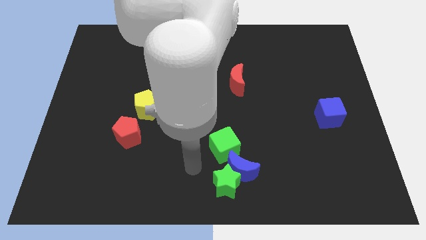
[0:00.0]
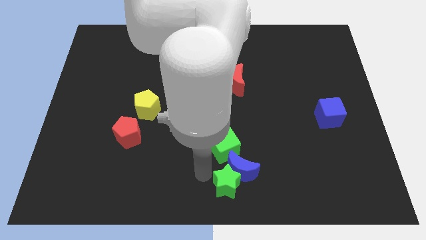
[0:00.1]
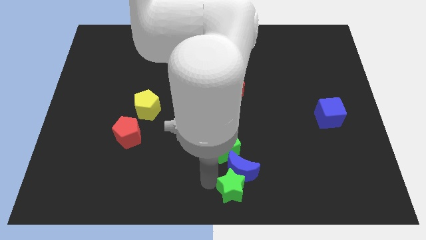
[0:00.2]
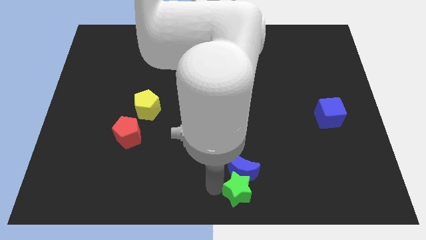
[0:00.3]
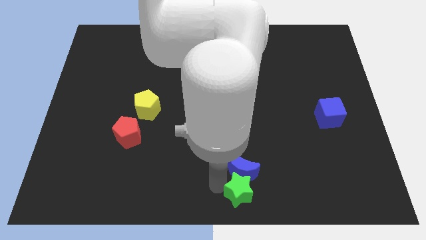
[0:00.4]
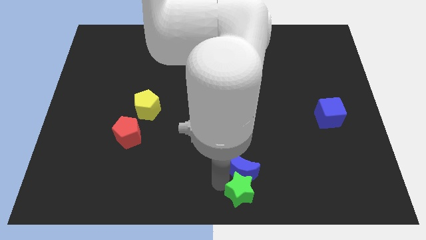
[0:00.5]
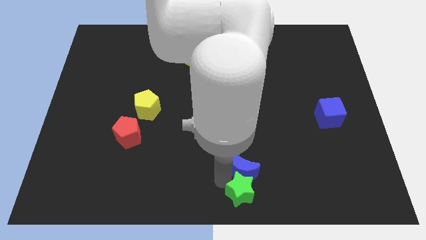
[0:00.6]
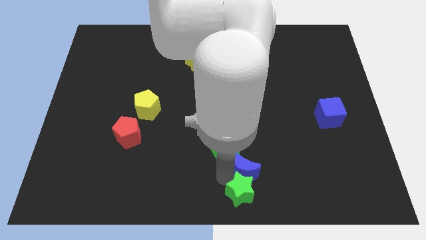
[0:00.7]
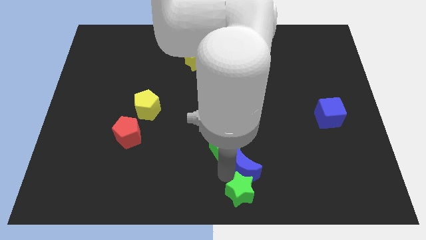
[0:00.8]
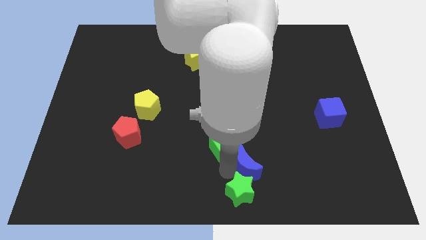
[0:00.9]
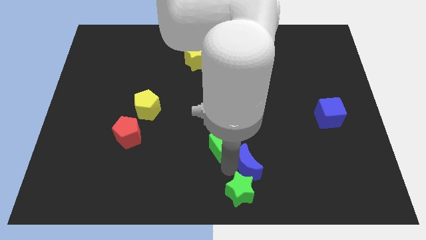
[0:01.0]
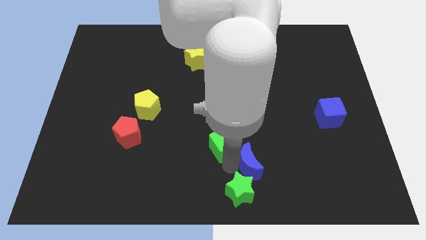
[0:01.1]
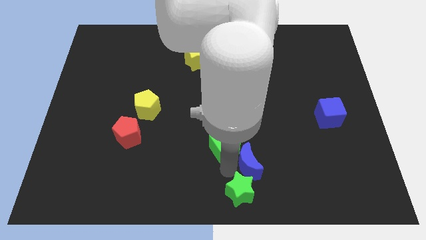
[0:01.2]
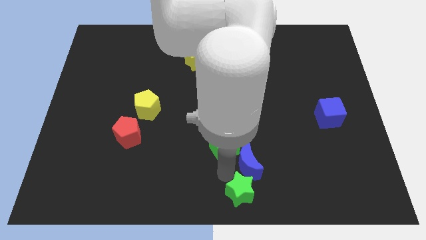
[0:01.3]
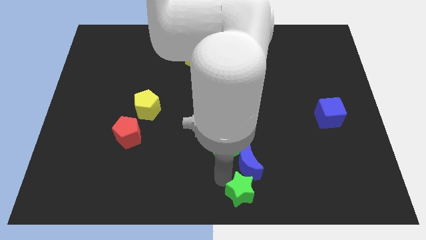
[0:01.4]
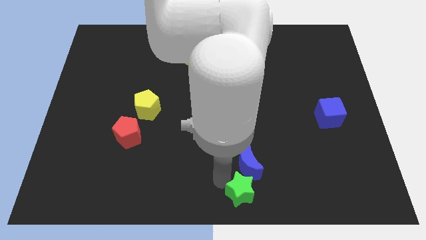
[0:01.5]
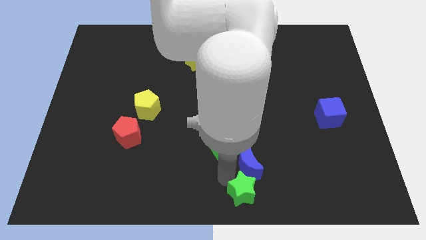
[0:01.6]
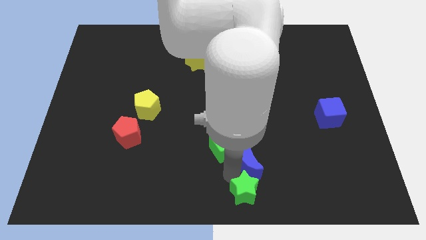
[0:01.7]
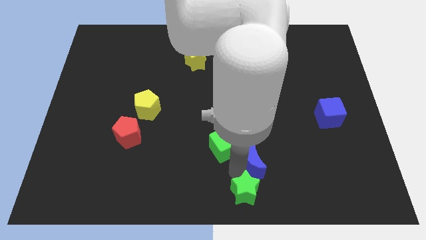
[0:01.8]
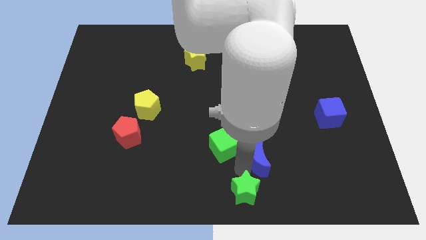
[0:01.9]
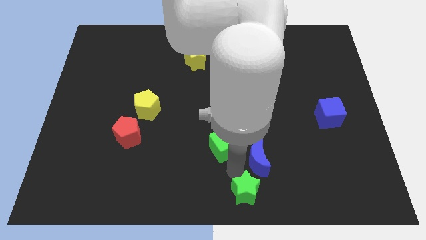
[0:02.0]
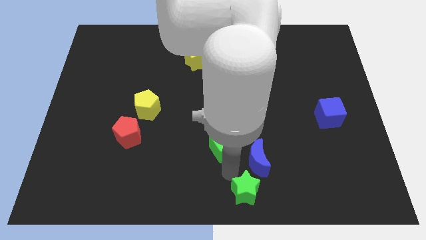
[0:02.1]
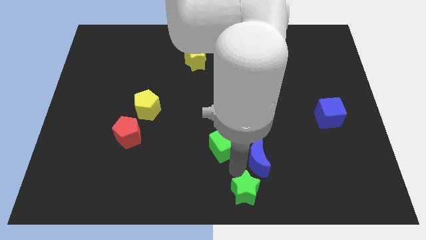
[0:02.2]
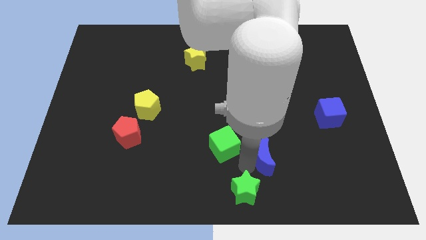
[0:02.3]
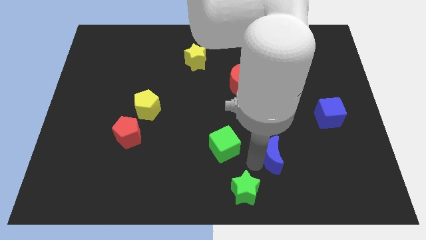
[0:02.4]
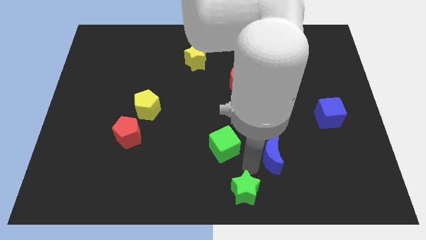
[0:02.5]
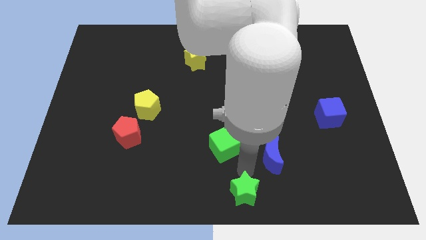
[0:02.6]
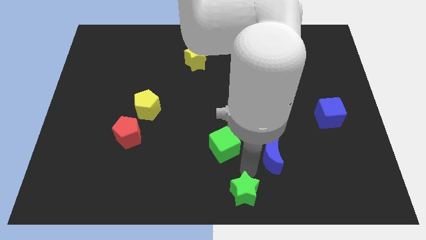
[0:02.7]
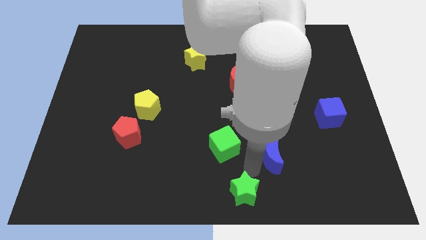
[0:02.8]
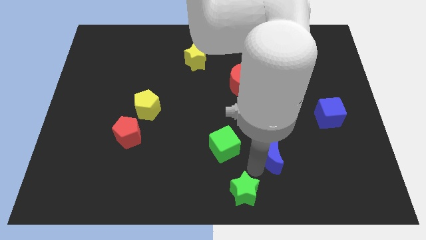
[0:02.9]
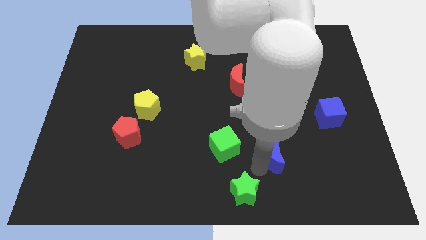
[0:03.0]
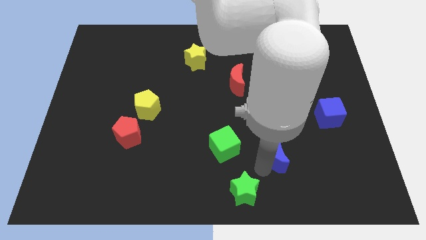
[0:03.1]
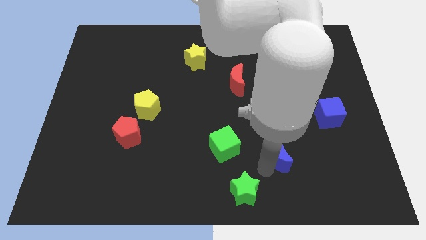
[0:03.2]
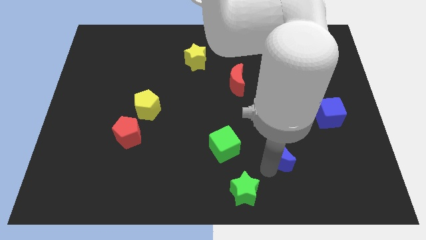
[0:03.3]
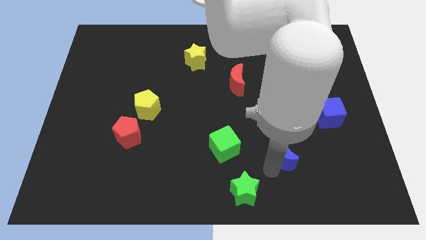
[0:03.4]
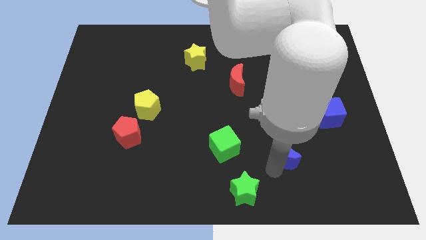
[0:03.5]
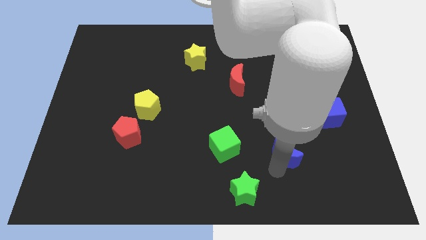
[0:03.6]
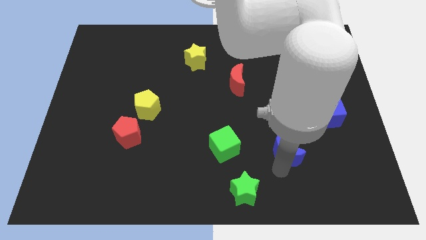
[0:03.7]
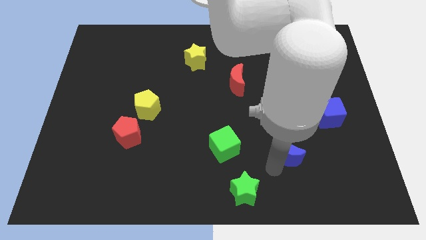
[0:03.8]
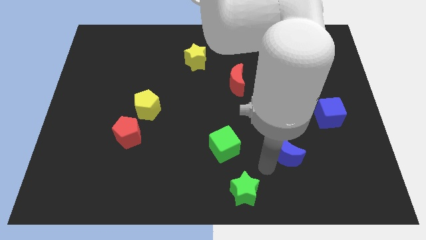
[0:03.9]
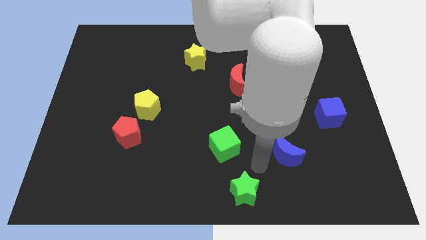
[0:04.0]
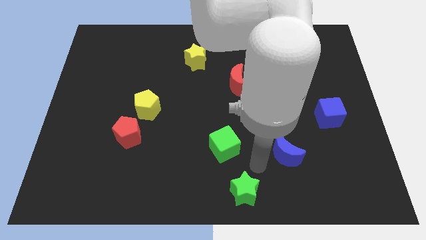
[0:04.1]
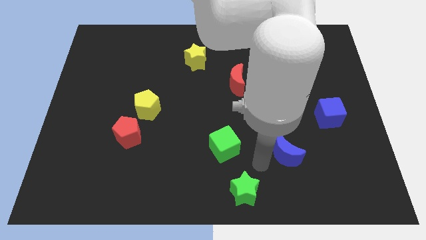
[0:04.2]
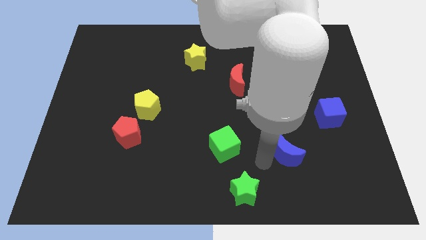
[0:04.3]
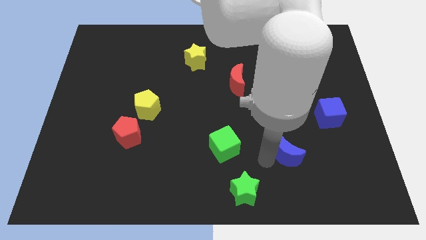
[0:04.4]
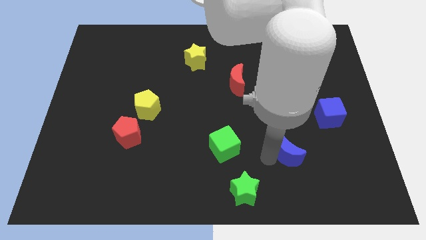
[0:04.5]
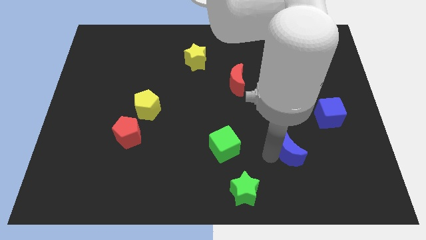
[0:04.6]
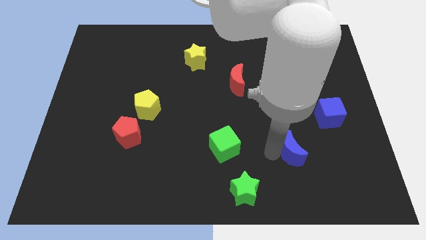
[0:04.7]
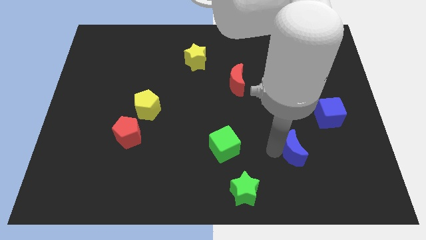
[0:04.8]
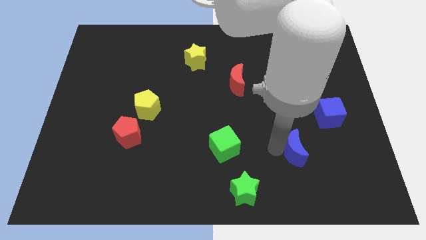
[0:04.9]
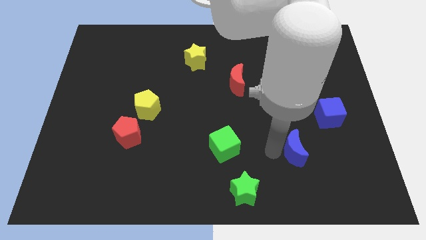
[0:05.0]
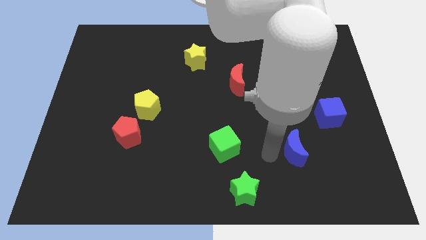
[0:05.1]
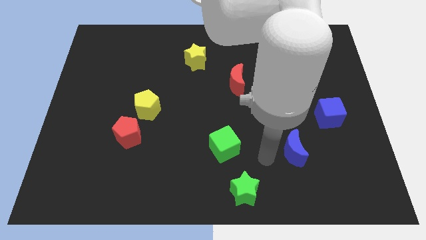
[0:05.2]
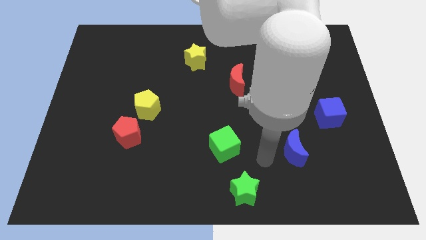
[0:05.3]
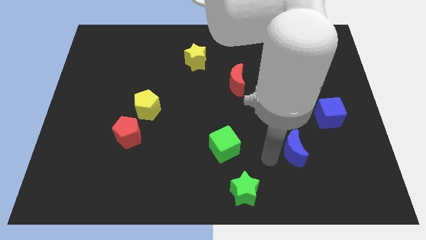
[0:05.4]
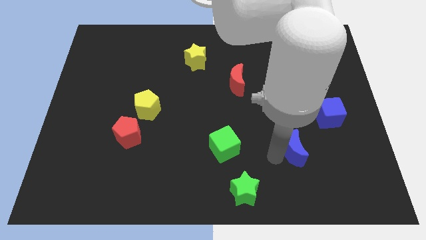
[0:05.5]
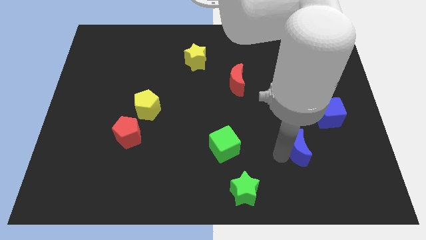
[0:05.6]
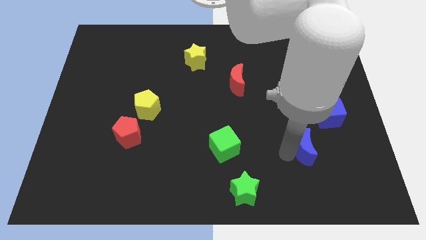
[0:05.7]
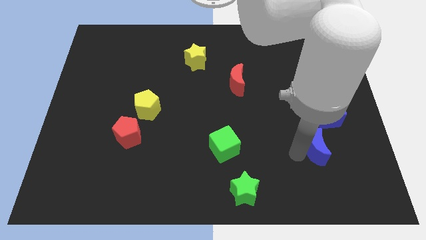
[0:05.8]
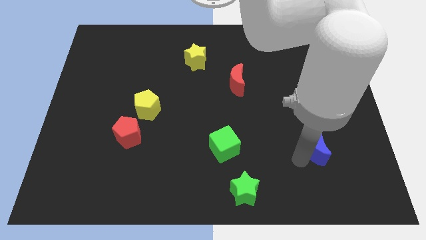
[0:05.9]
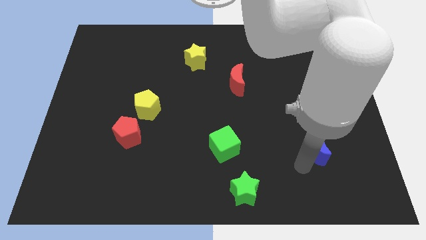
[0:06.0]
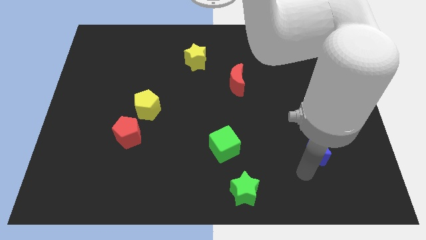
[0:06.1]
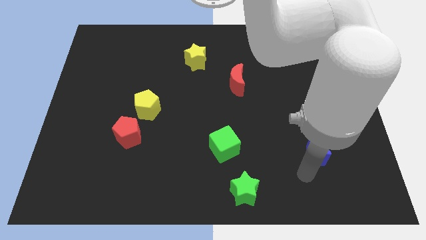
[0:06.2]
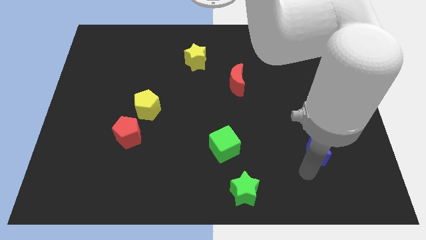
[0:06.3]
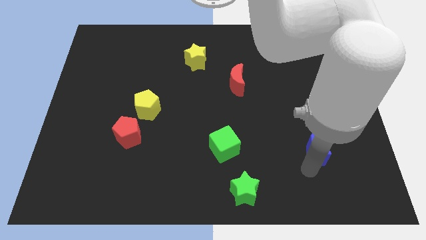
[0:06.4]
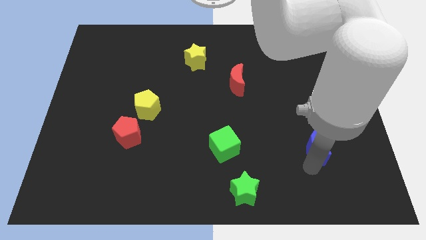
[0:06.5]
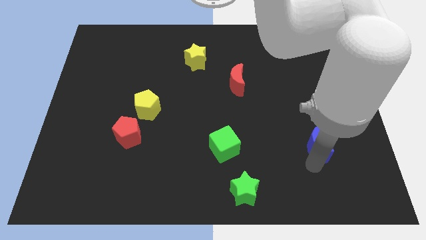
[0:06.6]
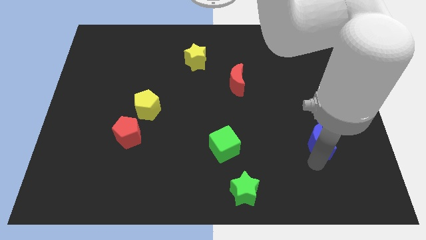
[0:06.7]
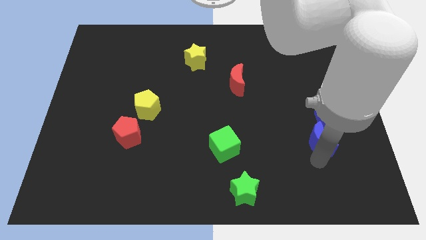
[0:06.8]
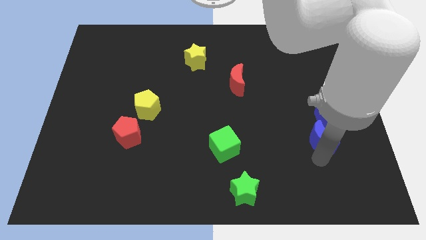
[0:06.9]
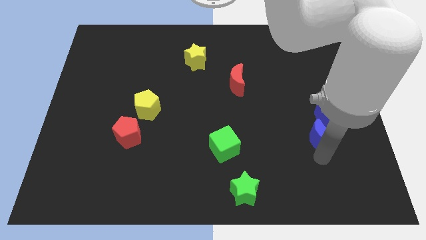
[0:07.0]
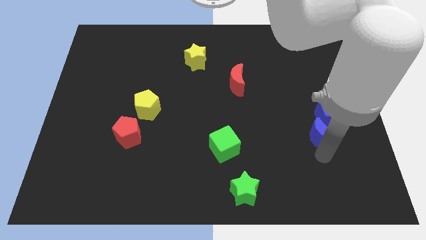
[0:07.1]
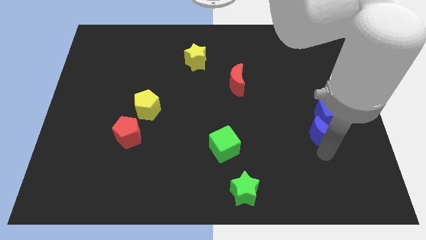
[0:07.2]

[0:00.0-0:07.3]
slide the blue moon next to the blue cube

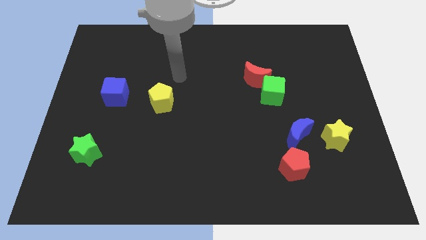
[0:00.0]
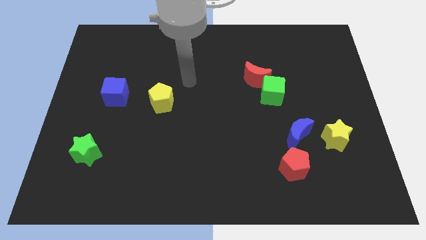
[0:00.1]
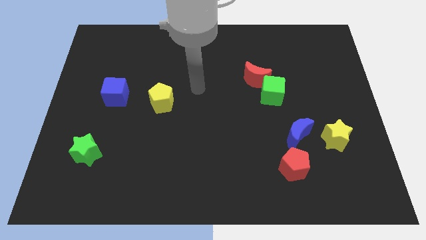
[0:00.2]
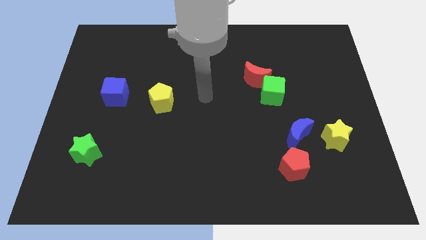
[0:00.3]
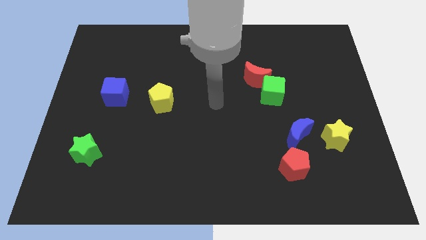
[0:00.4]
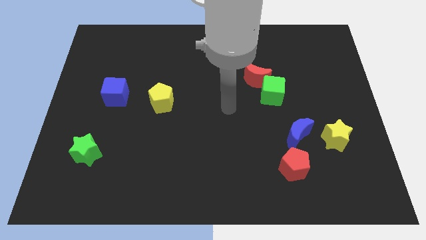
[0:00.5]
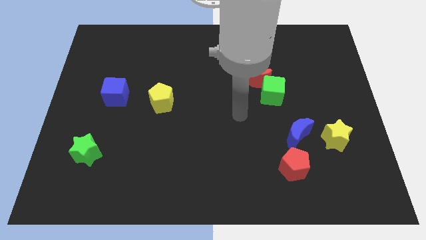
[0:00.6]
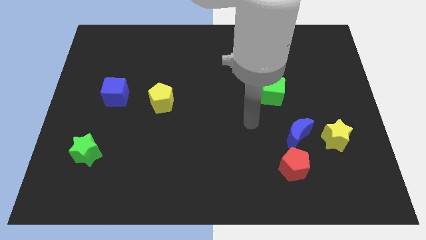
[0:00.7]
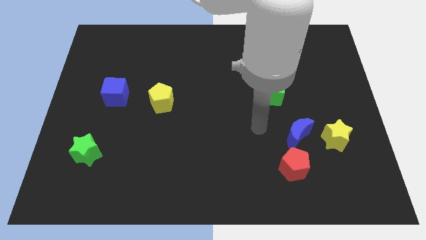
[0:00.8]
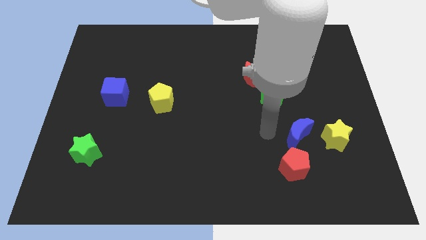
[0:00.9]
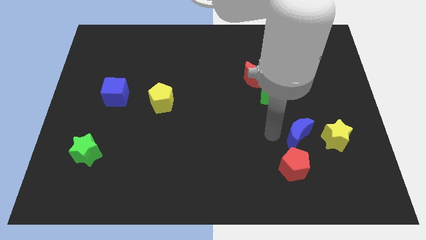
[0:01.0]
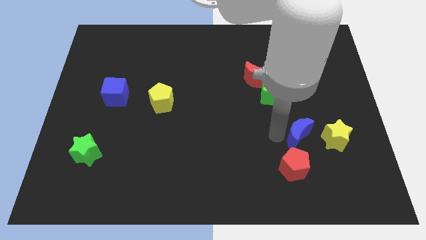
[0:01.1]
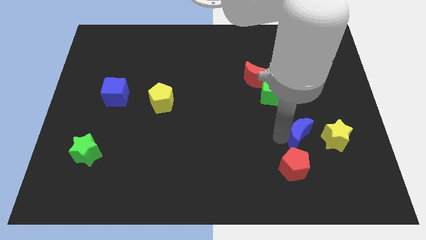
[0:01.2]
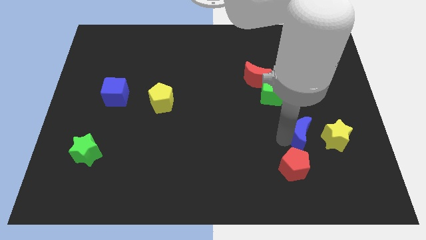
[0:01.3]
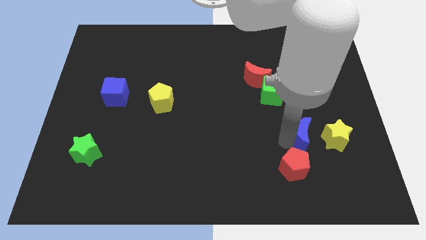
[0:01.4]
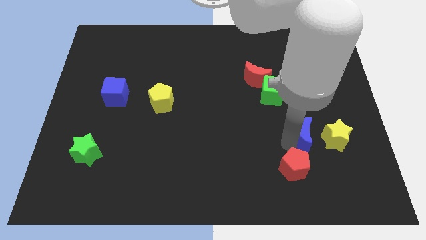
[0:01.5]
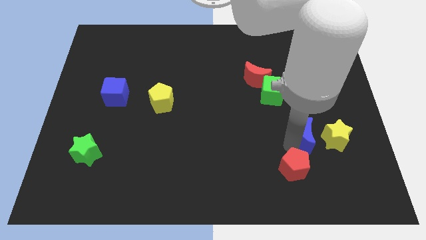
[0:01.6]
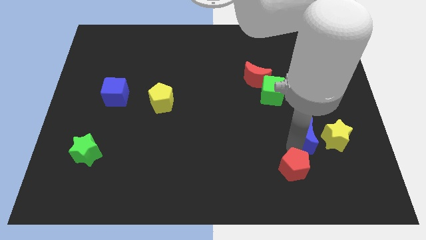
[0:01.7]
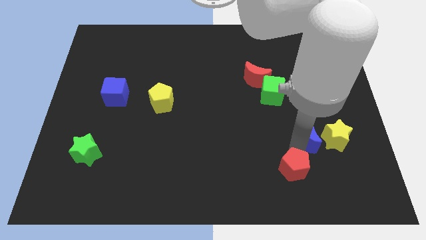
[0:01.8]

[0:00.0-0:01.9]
move the blue moon towards the yellow star
